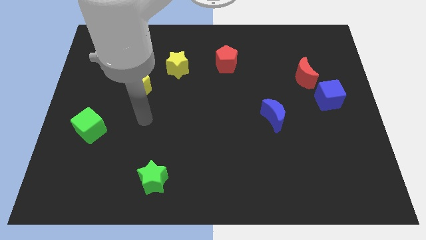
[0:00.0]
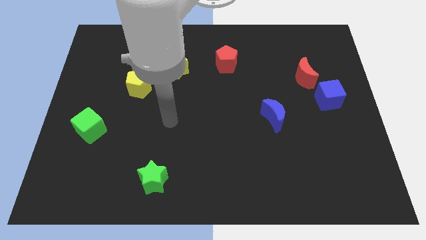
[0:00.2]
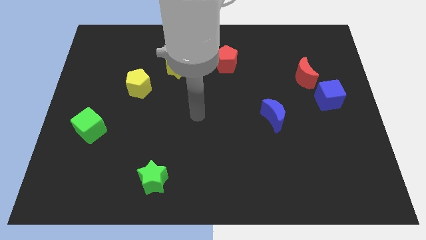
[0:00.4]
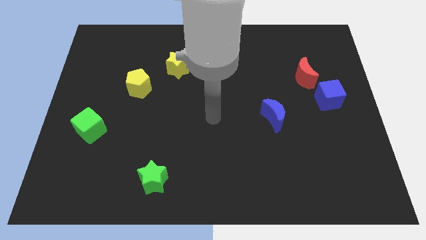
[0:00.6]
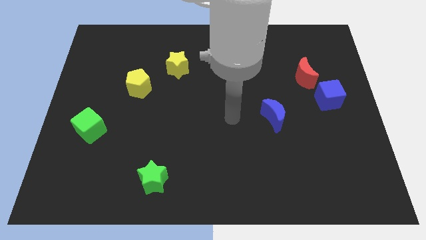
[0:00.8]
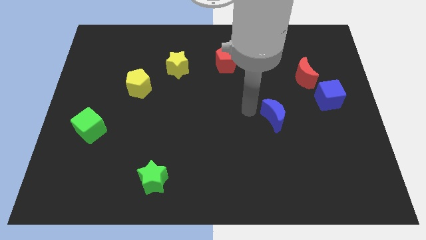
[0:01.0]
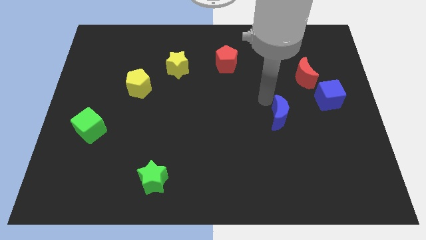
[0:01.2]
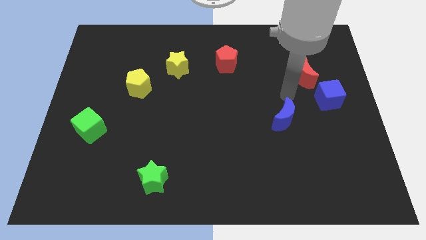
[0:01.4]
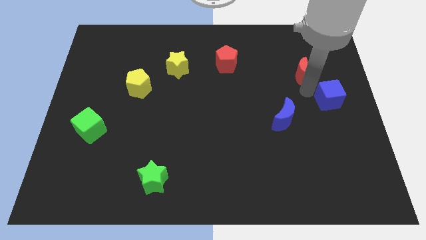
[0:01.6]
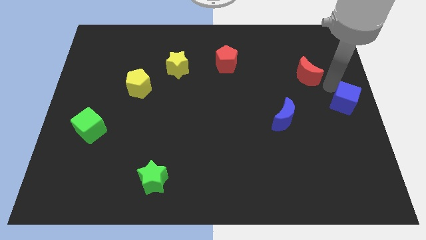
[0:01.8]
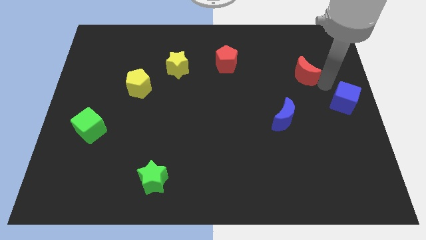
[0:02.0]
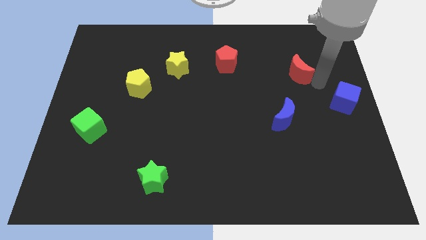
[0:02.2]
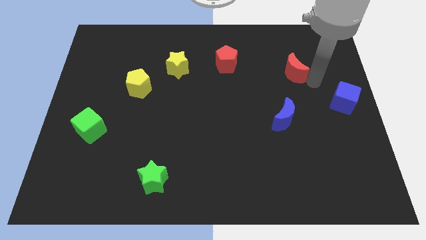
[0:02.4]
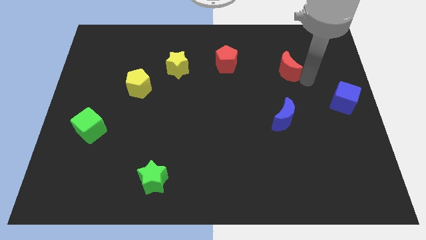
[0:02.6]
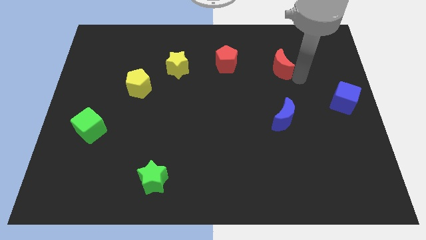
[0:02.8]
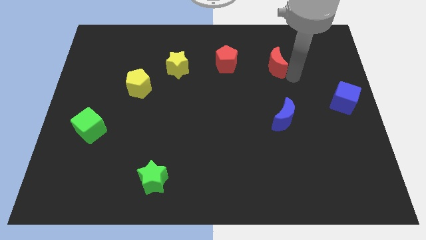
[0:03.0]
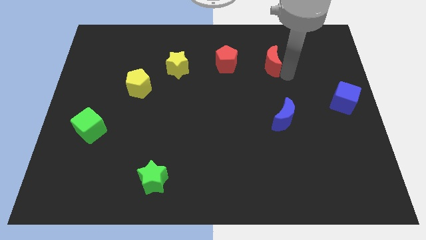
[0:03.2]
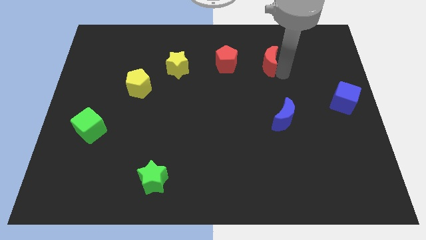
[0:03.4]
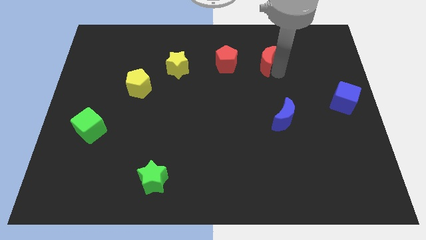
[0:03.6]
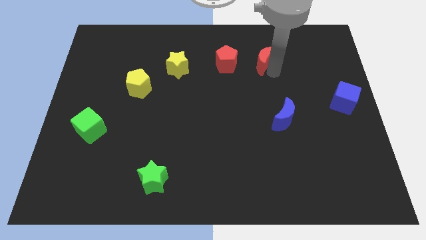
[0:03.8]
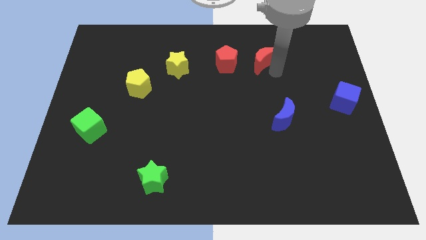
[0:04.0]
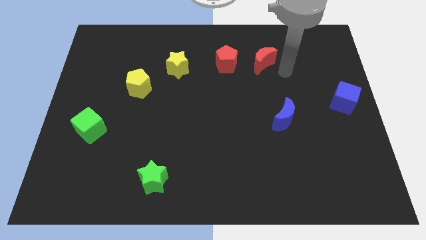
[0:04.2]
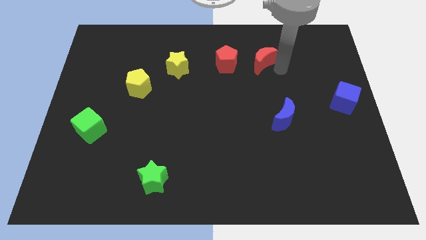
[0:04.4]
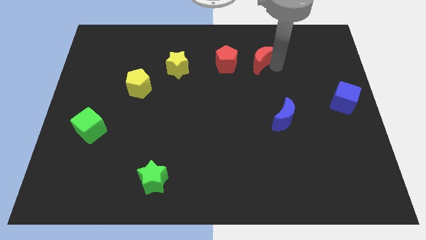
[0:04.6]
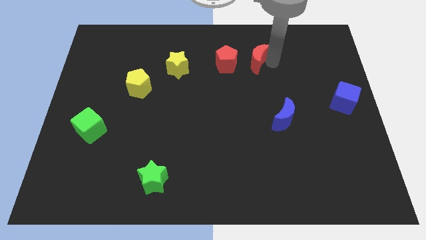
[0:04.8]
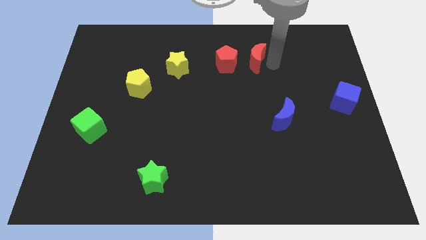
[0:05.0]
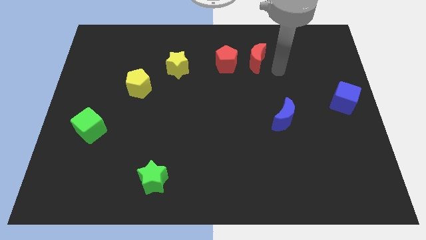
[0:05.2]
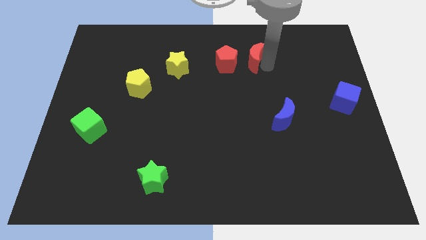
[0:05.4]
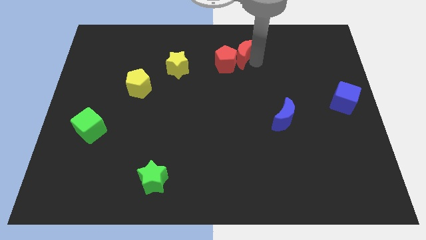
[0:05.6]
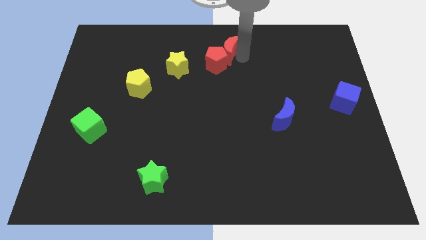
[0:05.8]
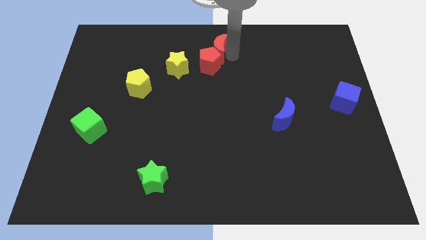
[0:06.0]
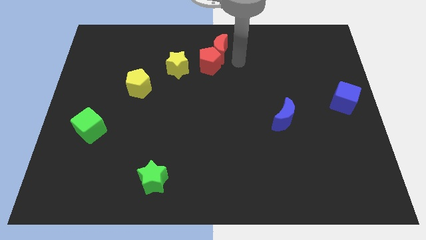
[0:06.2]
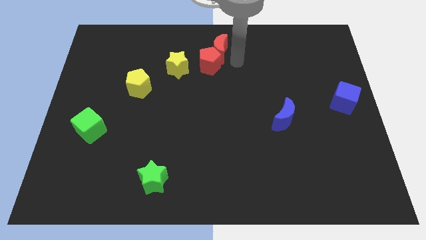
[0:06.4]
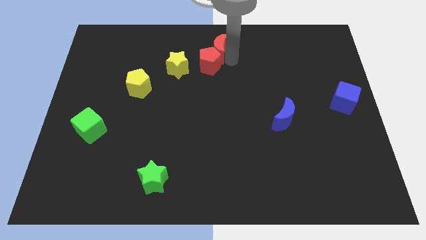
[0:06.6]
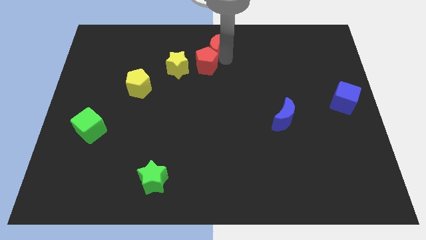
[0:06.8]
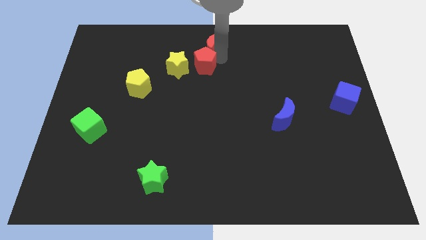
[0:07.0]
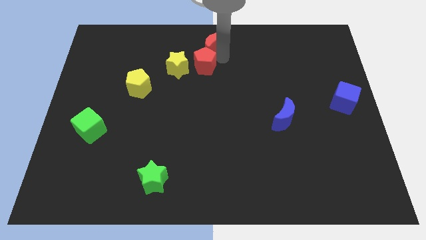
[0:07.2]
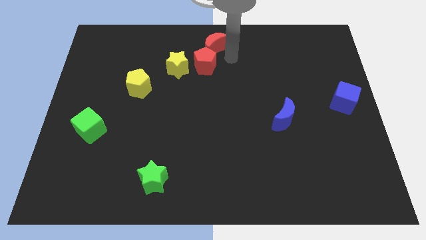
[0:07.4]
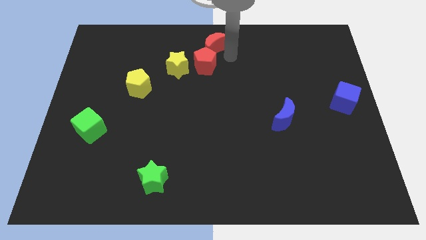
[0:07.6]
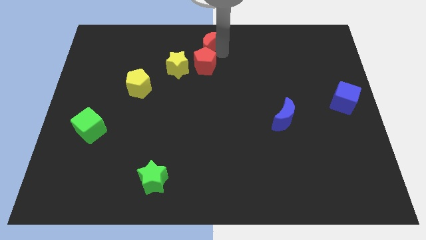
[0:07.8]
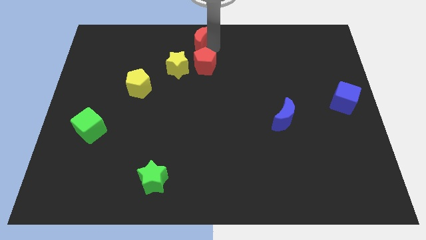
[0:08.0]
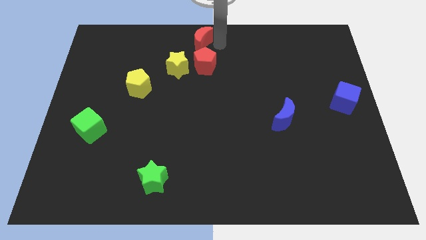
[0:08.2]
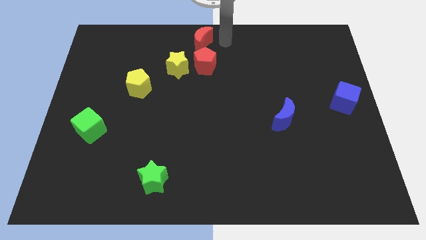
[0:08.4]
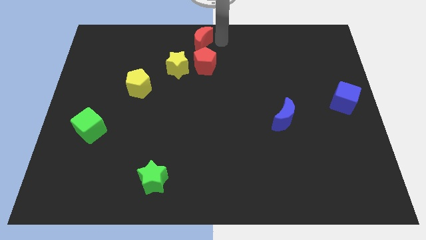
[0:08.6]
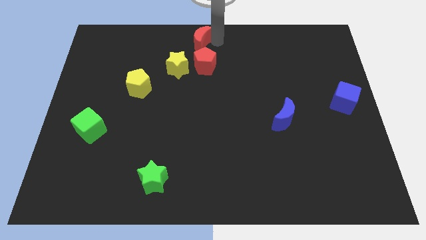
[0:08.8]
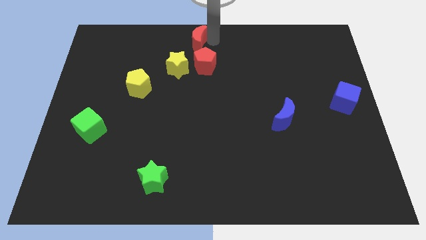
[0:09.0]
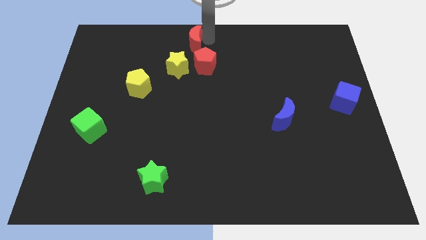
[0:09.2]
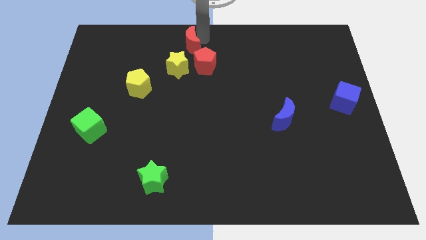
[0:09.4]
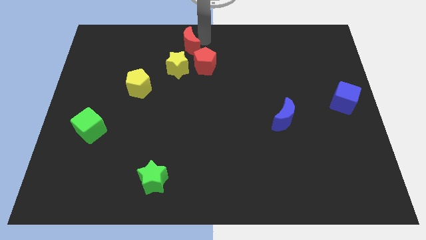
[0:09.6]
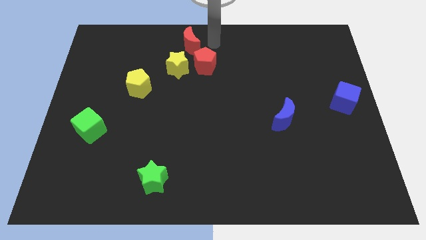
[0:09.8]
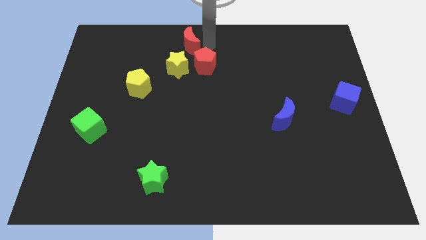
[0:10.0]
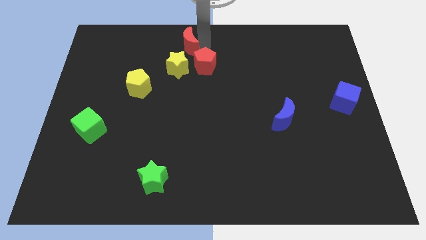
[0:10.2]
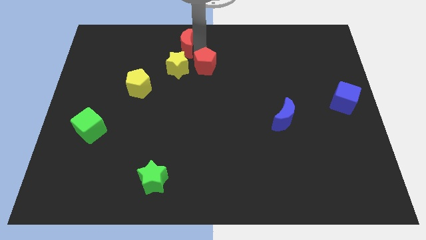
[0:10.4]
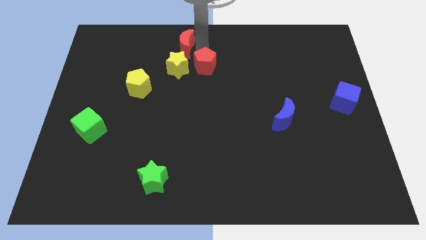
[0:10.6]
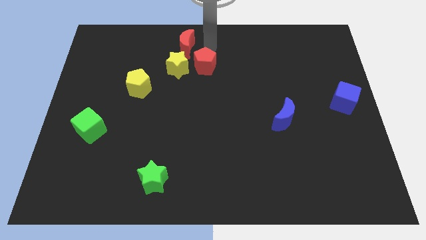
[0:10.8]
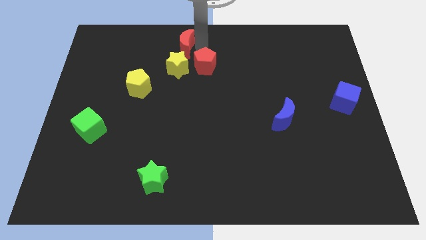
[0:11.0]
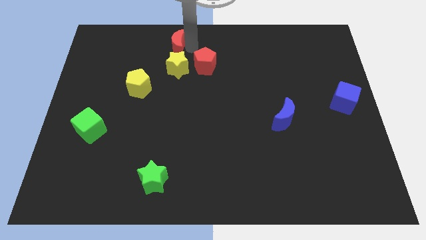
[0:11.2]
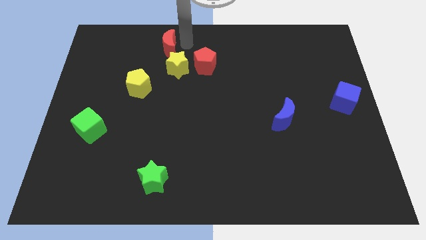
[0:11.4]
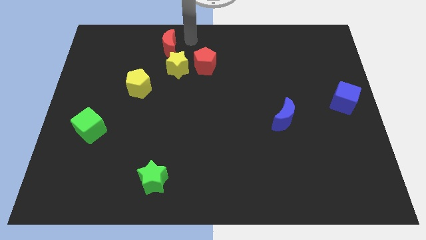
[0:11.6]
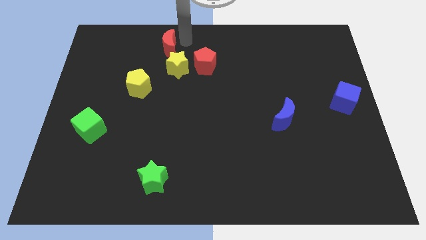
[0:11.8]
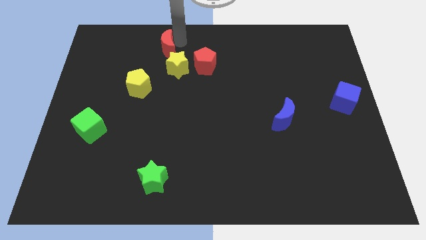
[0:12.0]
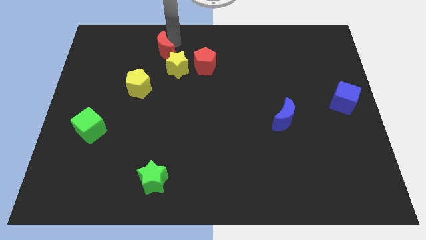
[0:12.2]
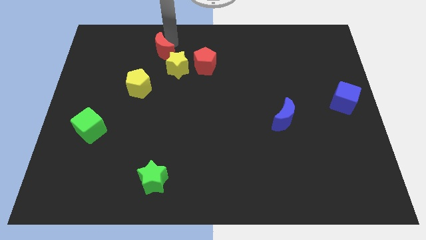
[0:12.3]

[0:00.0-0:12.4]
move the red moon to the top side of the yellow pentagon

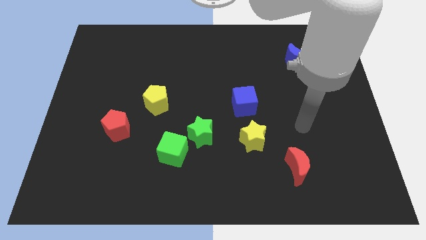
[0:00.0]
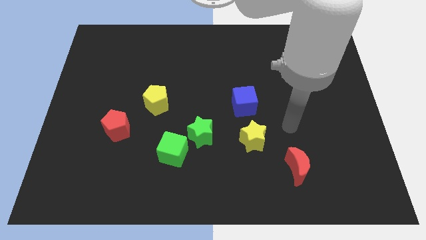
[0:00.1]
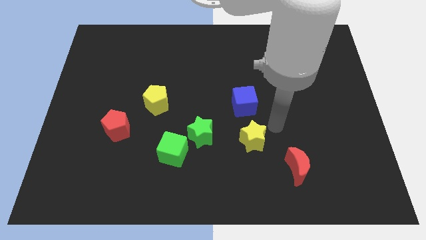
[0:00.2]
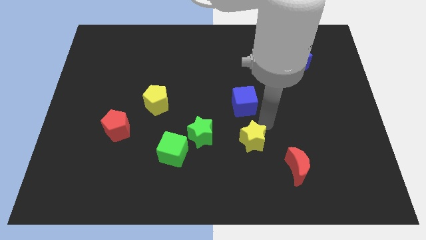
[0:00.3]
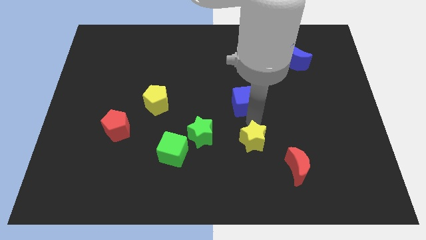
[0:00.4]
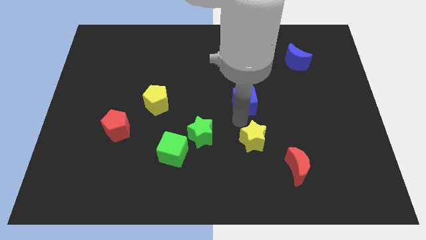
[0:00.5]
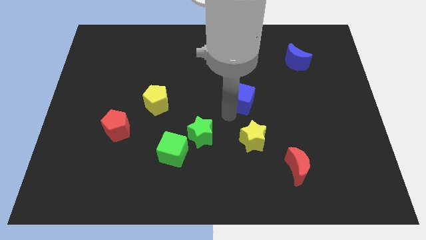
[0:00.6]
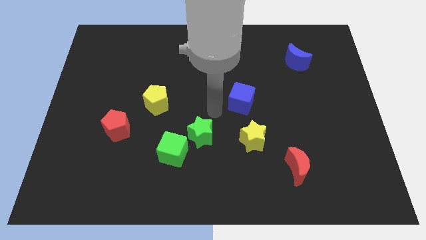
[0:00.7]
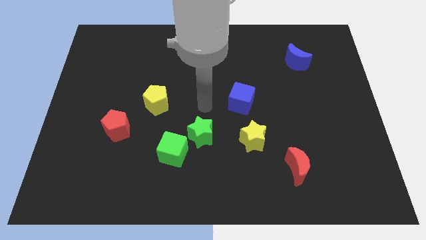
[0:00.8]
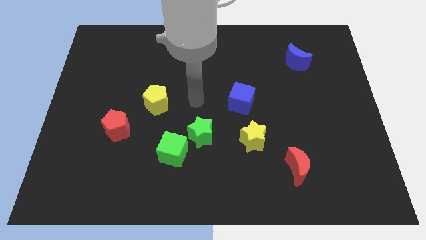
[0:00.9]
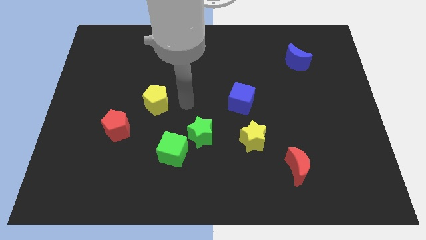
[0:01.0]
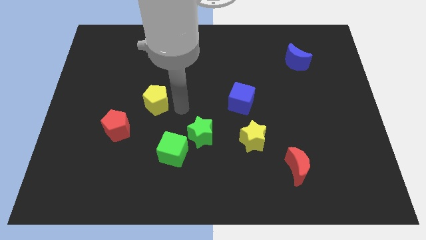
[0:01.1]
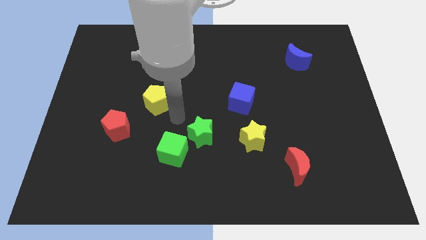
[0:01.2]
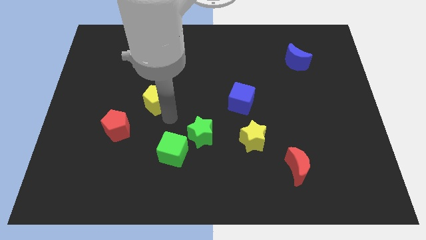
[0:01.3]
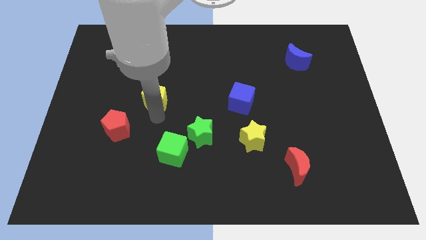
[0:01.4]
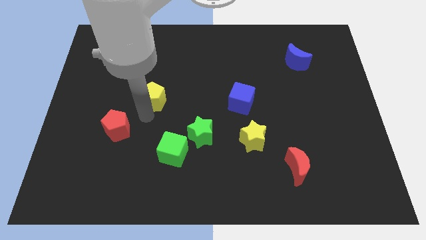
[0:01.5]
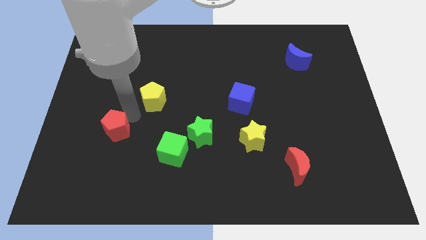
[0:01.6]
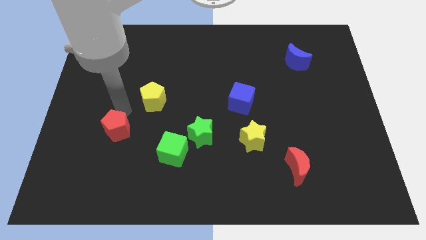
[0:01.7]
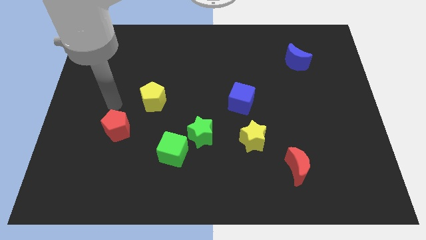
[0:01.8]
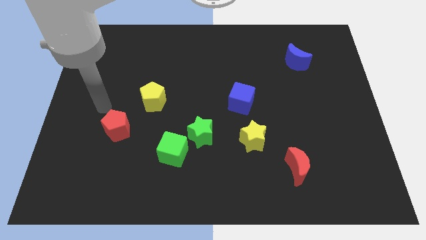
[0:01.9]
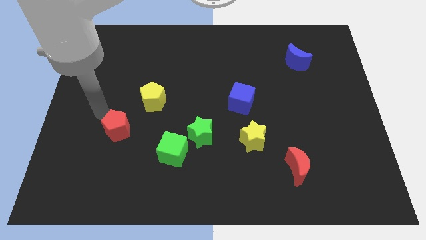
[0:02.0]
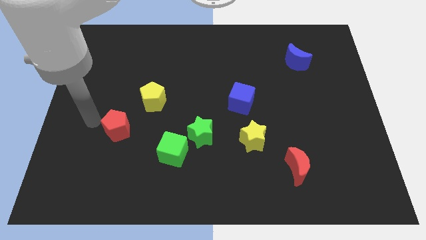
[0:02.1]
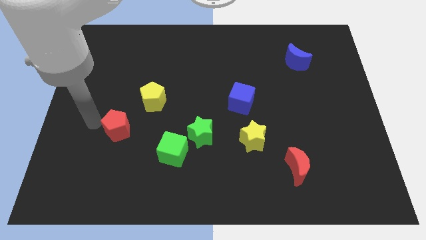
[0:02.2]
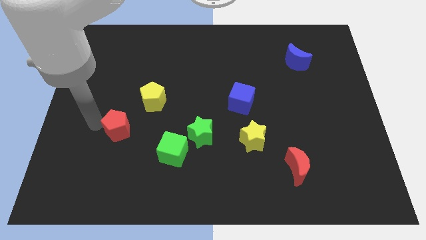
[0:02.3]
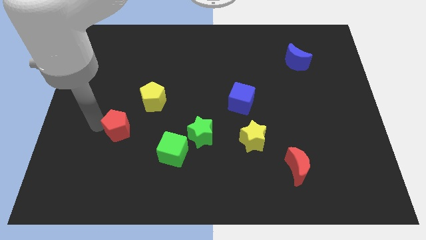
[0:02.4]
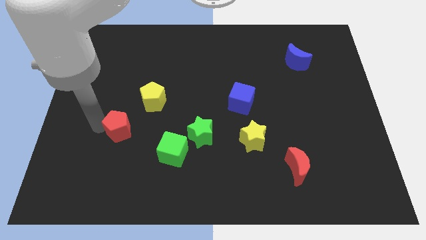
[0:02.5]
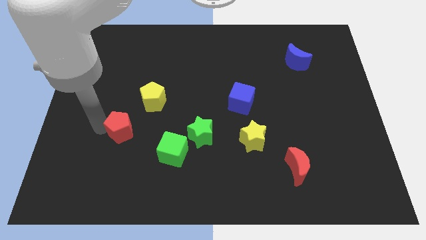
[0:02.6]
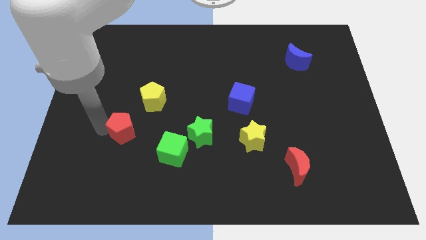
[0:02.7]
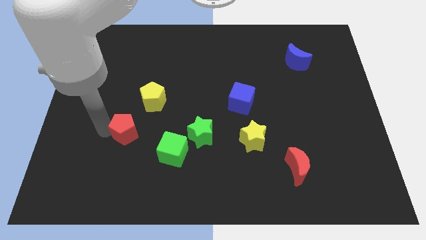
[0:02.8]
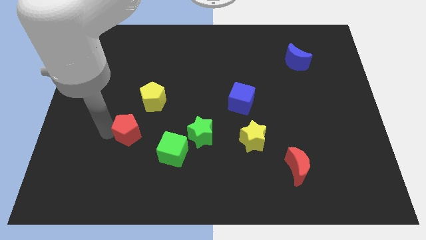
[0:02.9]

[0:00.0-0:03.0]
put the red pentagon below the yellow pentagon
